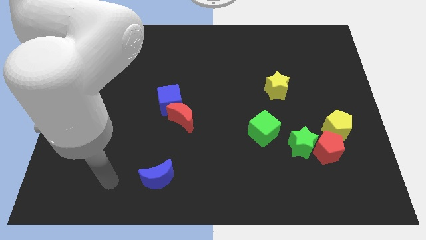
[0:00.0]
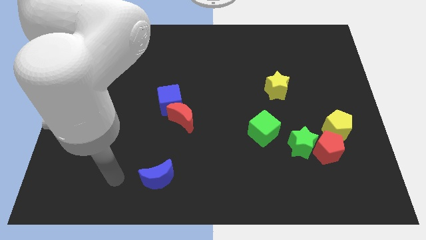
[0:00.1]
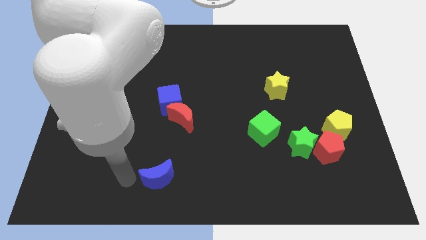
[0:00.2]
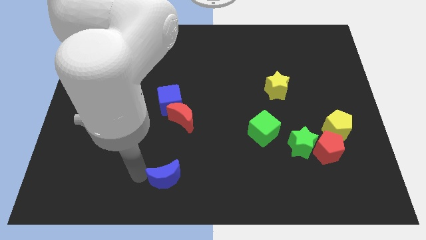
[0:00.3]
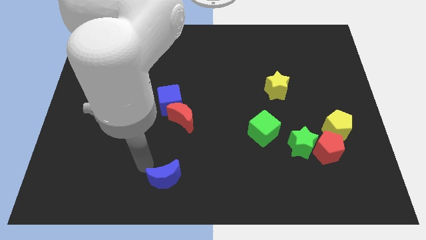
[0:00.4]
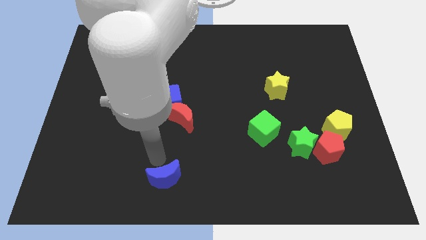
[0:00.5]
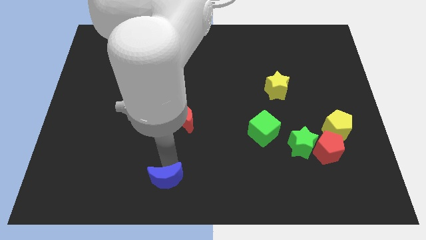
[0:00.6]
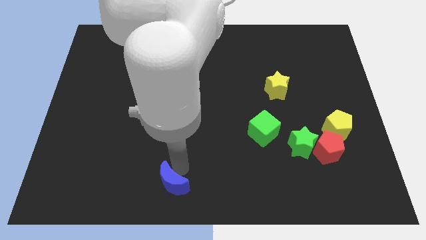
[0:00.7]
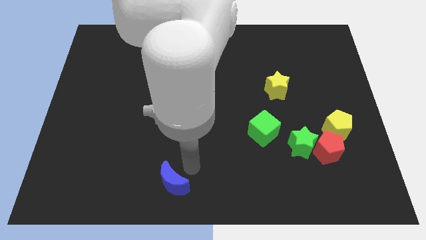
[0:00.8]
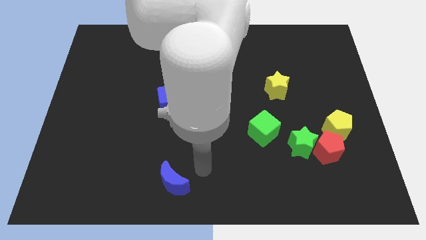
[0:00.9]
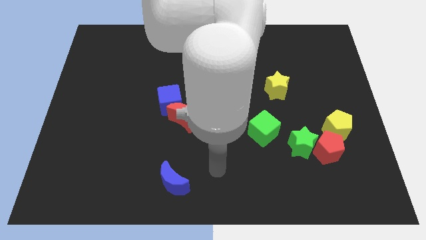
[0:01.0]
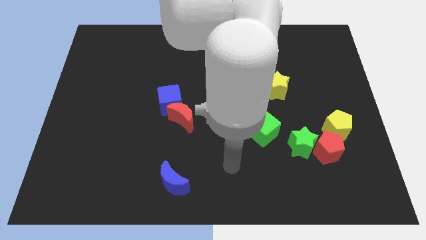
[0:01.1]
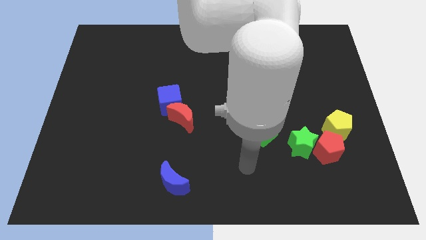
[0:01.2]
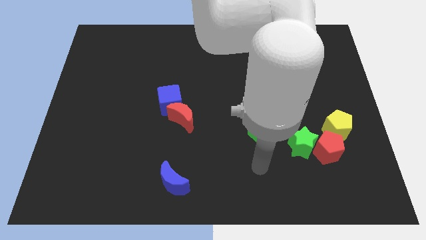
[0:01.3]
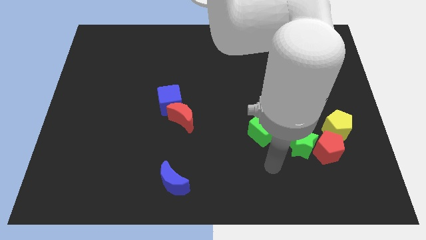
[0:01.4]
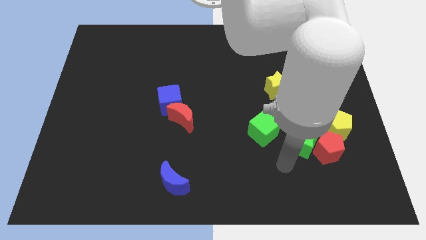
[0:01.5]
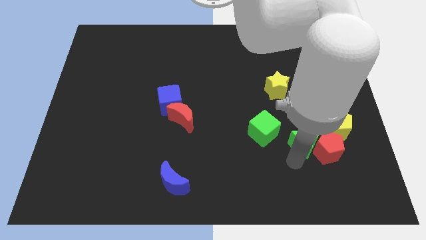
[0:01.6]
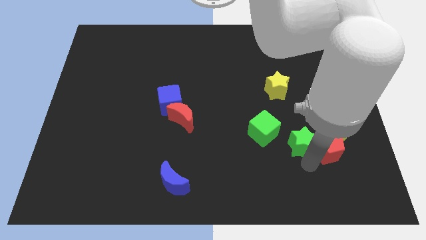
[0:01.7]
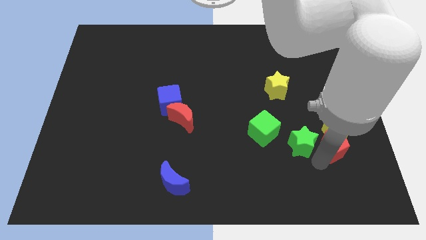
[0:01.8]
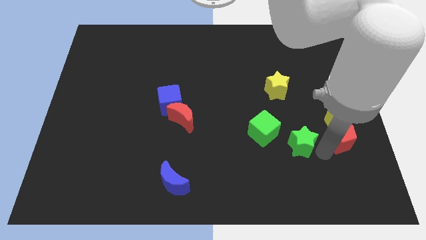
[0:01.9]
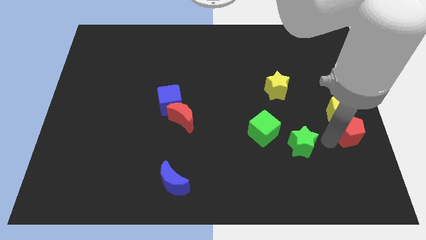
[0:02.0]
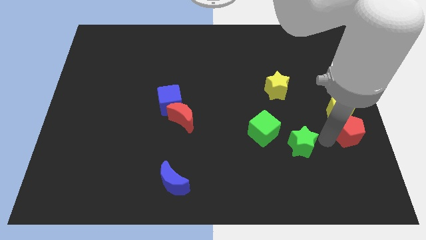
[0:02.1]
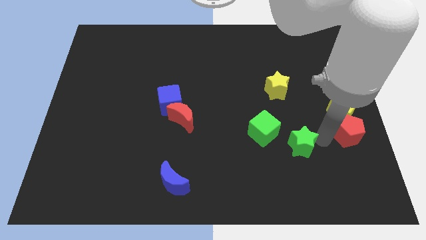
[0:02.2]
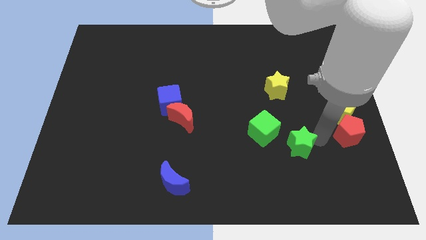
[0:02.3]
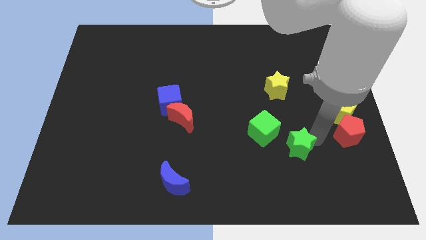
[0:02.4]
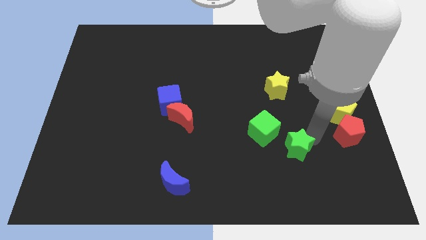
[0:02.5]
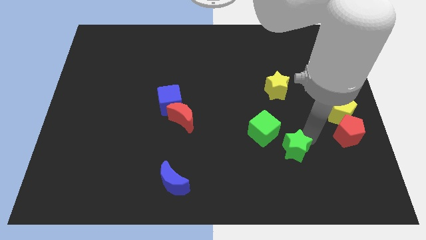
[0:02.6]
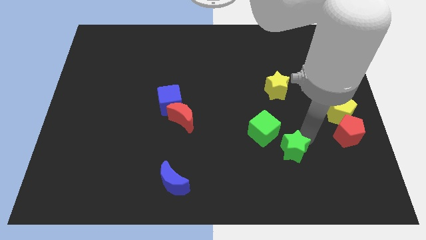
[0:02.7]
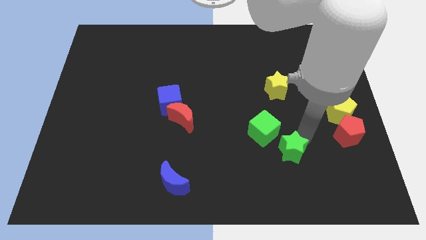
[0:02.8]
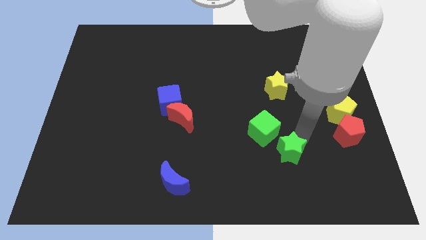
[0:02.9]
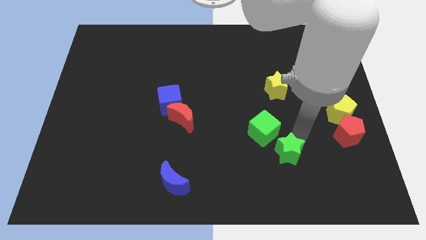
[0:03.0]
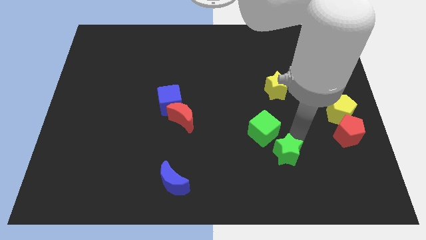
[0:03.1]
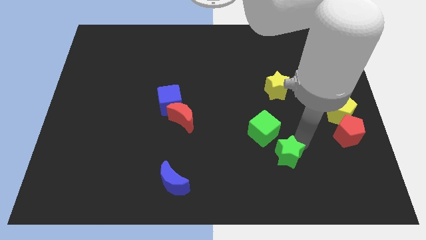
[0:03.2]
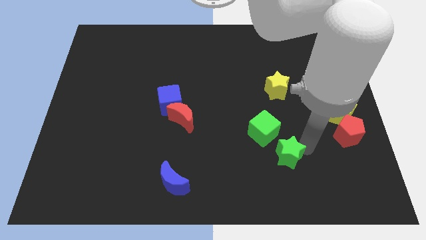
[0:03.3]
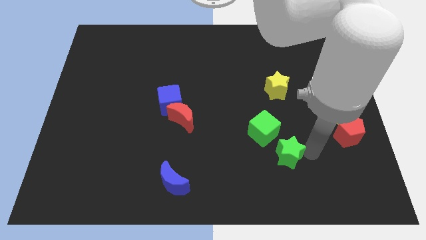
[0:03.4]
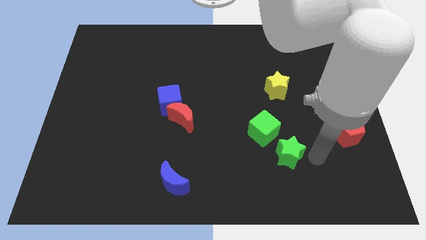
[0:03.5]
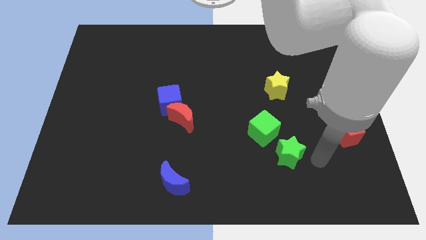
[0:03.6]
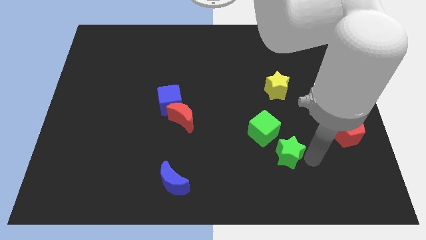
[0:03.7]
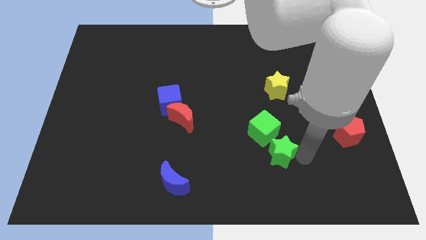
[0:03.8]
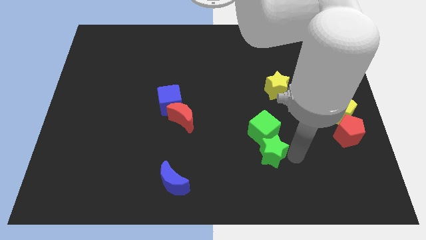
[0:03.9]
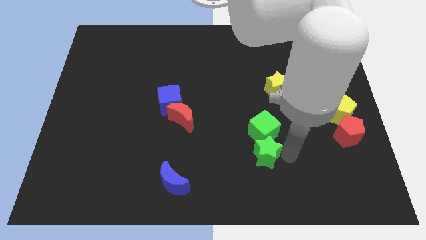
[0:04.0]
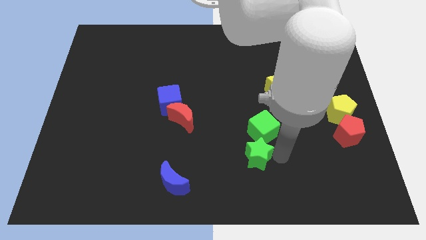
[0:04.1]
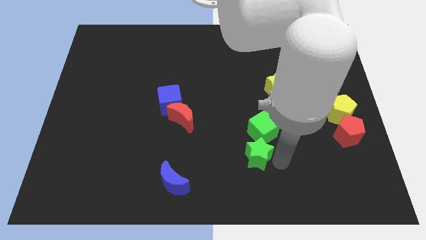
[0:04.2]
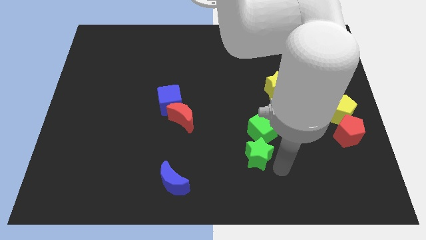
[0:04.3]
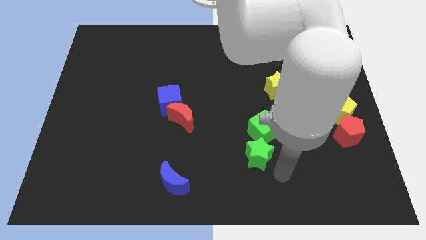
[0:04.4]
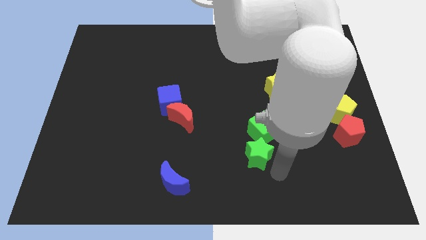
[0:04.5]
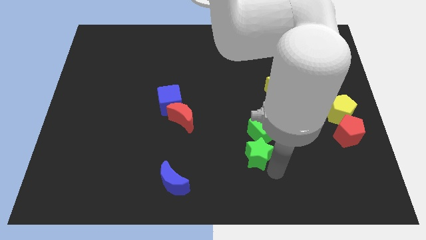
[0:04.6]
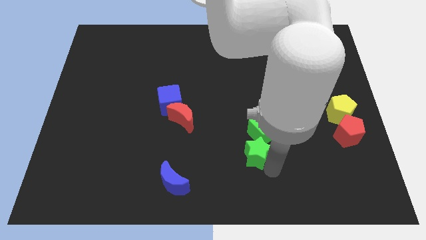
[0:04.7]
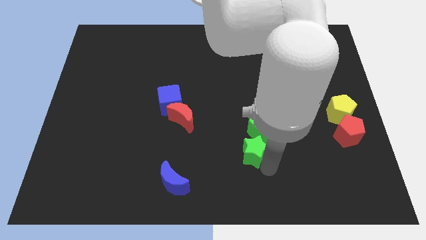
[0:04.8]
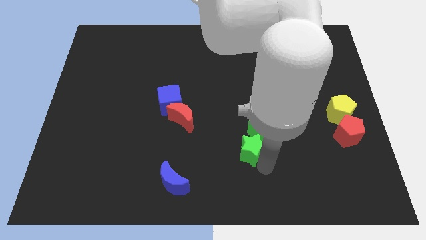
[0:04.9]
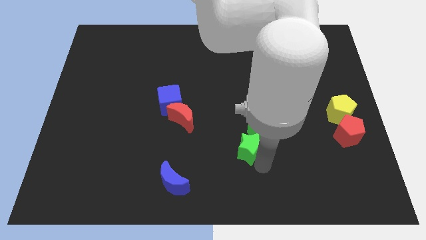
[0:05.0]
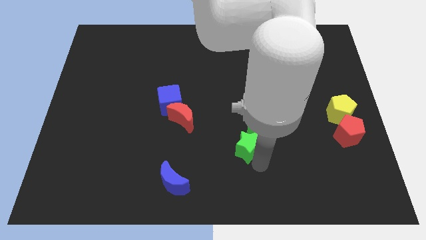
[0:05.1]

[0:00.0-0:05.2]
move the green star left of the green cube

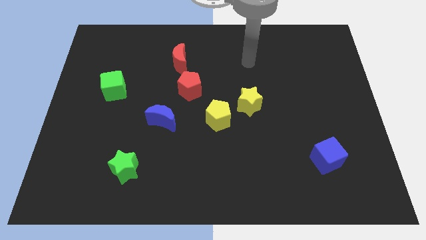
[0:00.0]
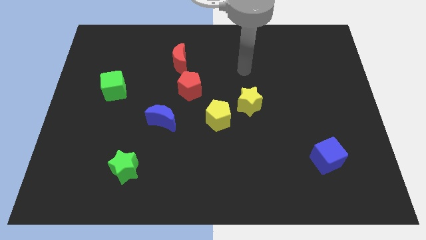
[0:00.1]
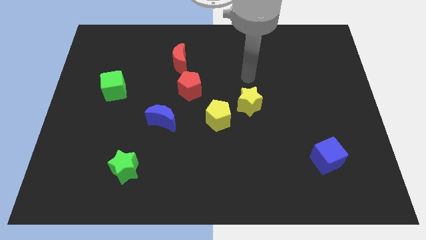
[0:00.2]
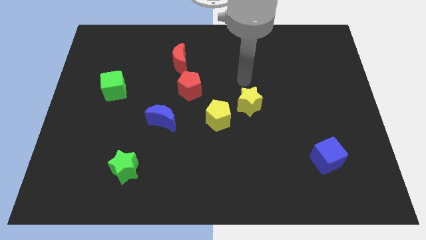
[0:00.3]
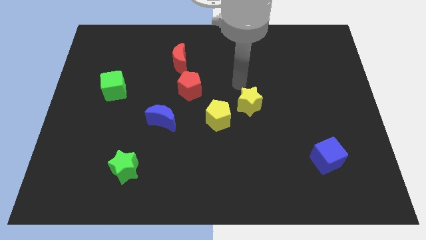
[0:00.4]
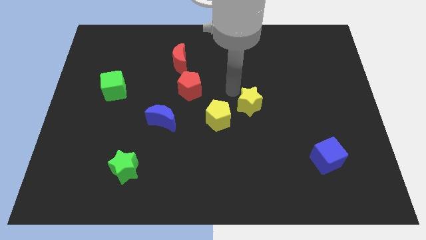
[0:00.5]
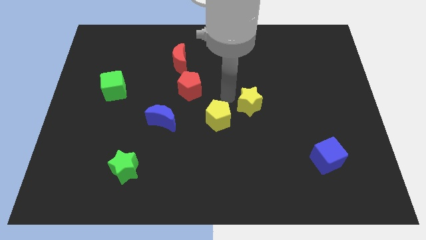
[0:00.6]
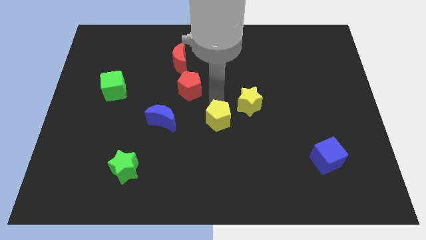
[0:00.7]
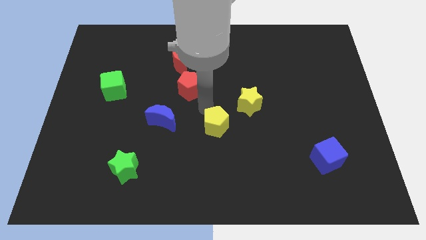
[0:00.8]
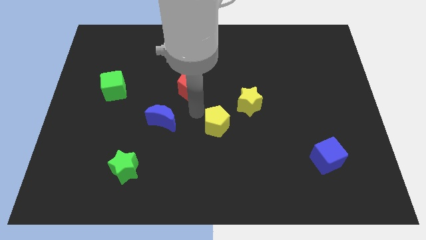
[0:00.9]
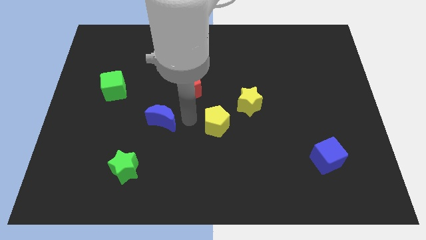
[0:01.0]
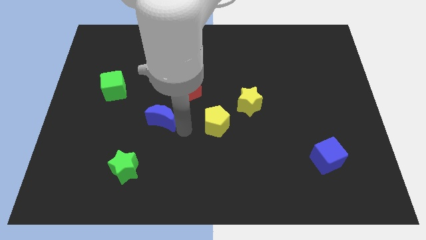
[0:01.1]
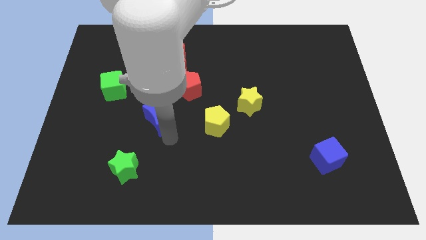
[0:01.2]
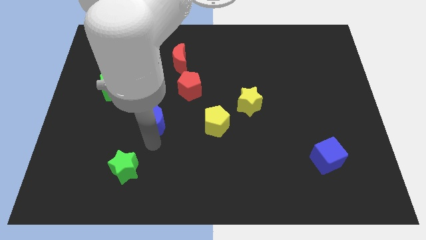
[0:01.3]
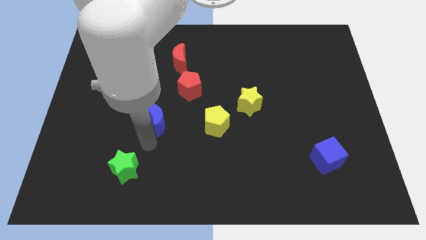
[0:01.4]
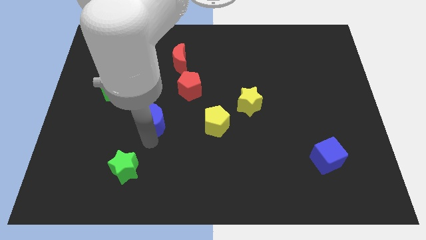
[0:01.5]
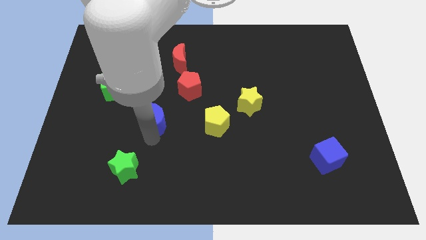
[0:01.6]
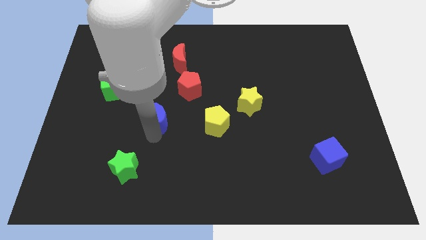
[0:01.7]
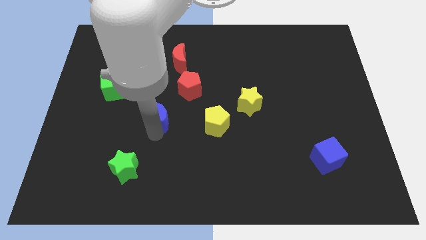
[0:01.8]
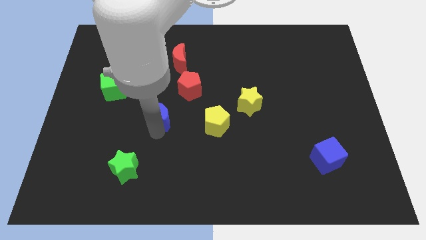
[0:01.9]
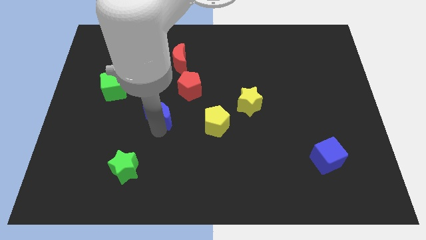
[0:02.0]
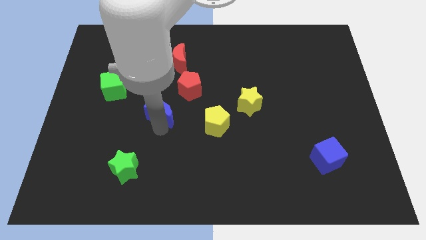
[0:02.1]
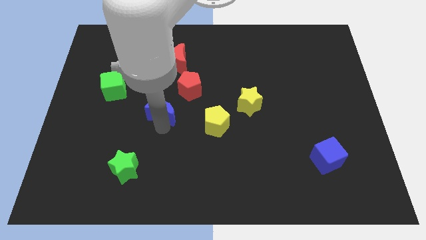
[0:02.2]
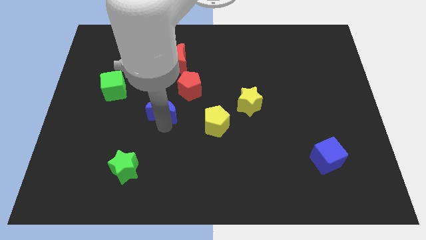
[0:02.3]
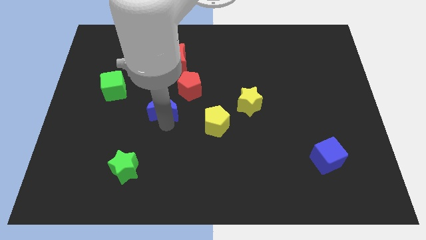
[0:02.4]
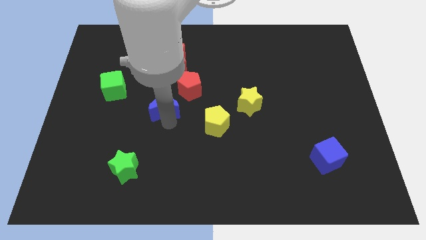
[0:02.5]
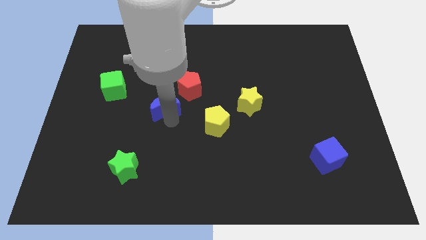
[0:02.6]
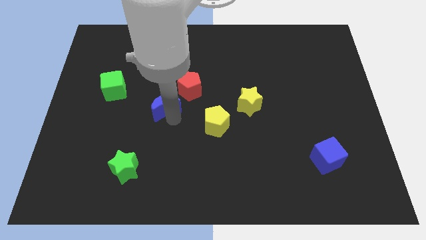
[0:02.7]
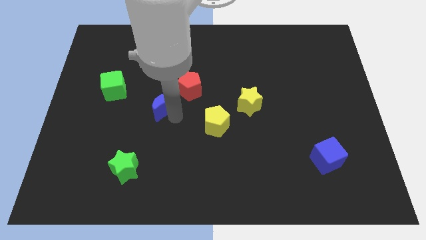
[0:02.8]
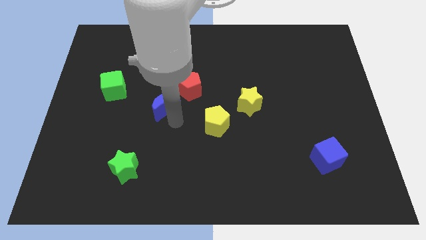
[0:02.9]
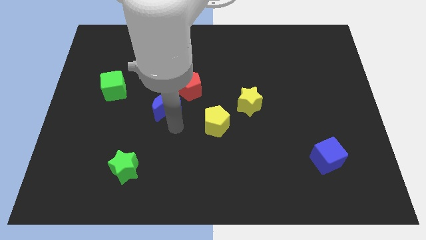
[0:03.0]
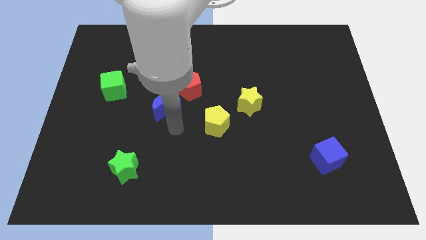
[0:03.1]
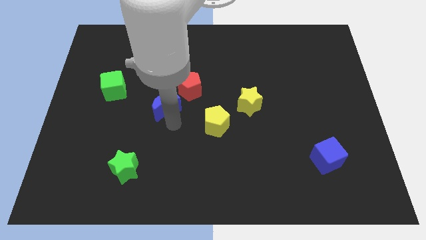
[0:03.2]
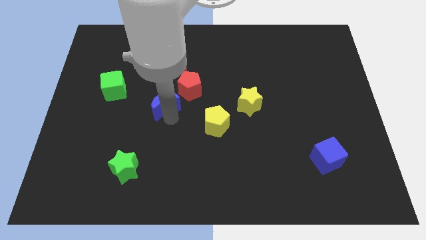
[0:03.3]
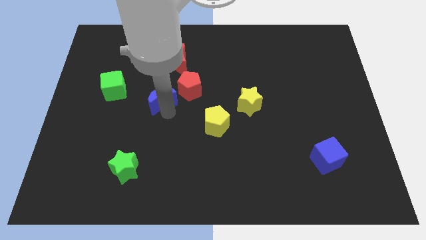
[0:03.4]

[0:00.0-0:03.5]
slide the blue moon to the right of the green cube
